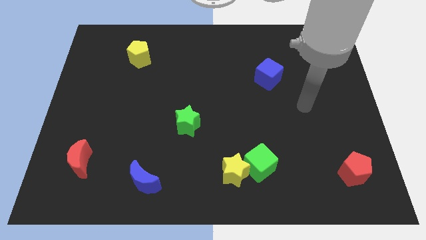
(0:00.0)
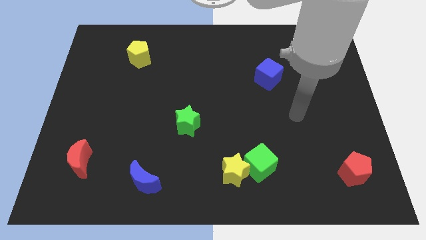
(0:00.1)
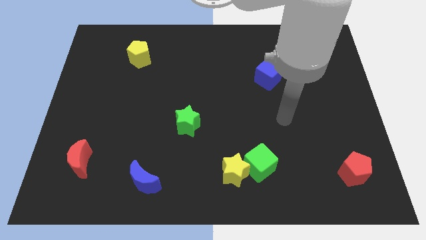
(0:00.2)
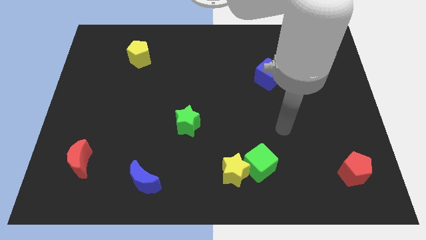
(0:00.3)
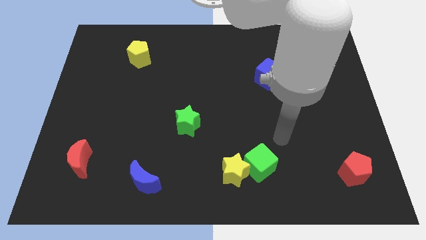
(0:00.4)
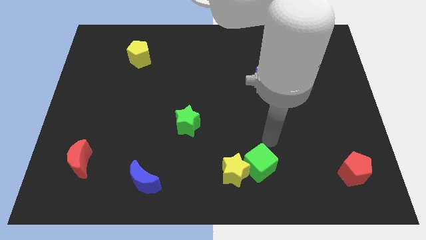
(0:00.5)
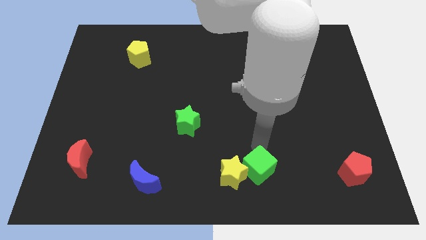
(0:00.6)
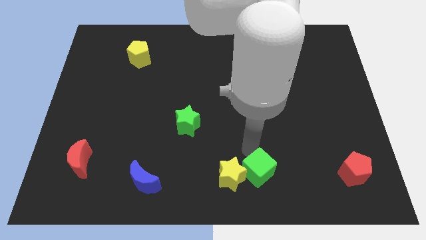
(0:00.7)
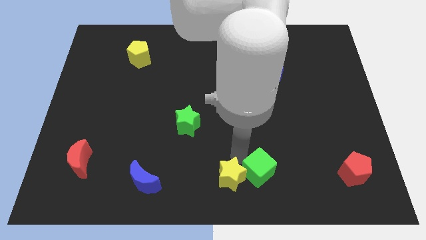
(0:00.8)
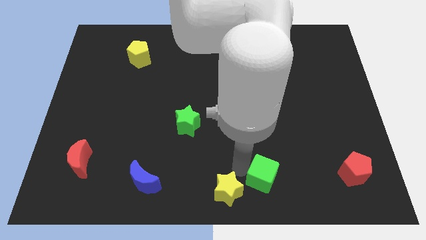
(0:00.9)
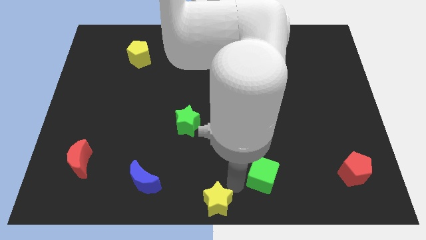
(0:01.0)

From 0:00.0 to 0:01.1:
pull the green cube apart from the yellow star

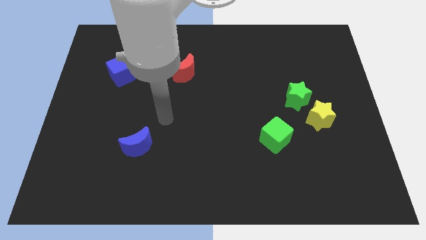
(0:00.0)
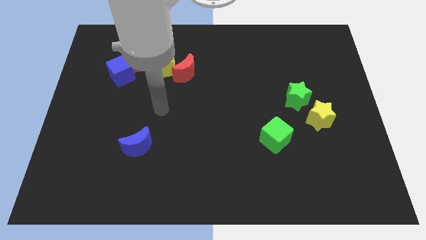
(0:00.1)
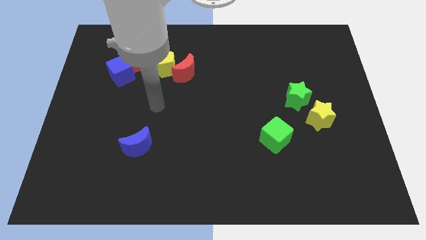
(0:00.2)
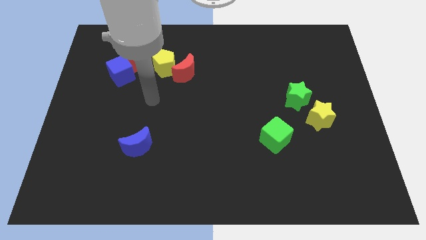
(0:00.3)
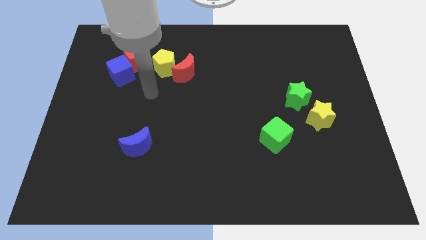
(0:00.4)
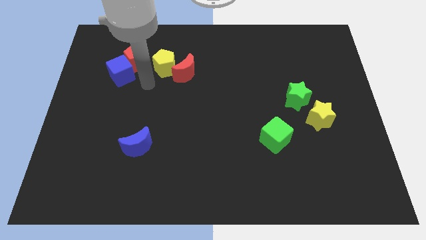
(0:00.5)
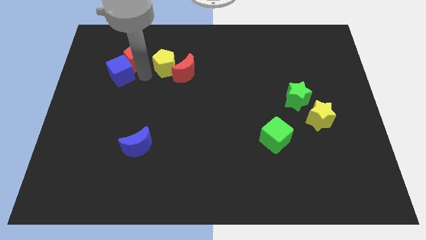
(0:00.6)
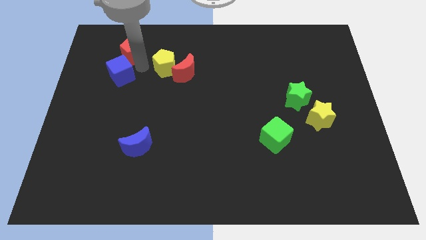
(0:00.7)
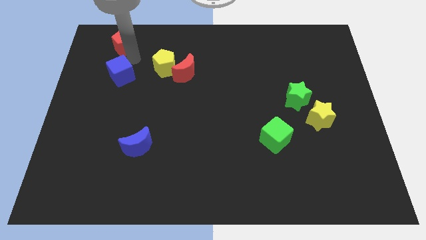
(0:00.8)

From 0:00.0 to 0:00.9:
move the blue cube away from the red pentagon

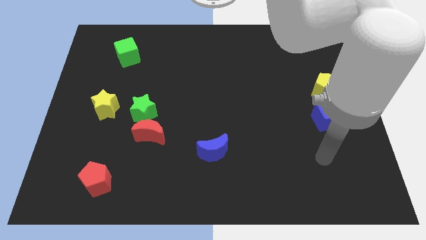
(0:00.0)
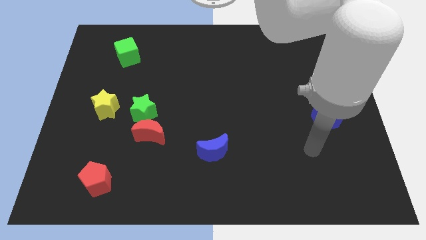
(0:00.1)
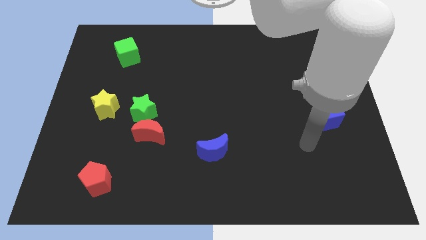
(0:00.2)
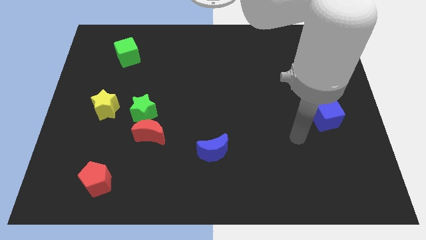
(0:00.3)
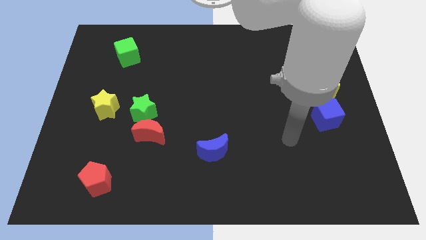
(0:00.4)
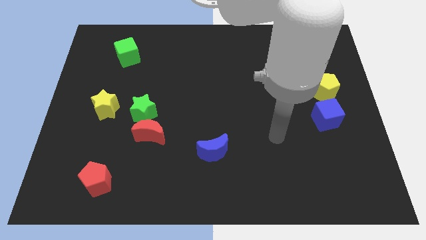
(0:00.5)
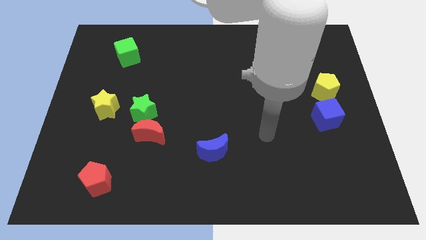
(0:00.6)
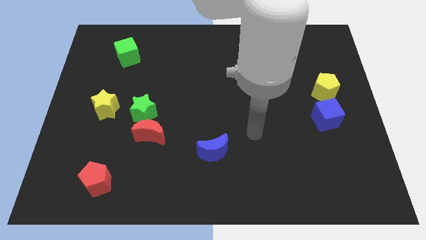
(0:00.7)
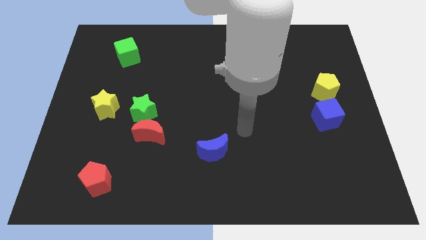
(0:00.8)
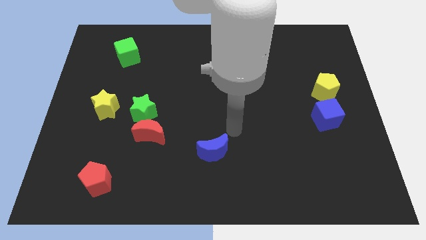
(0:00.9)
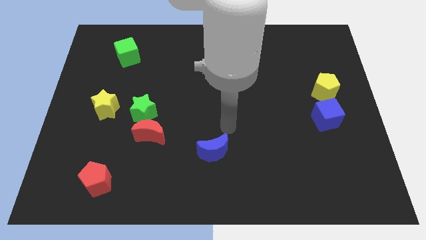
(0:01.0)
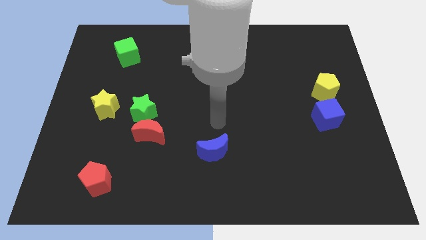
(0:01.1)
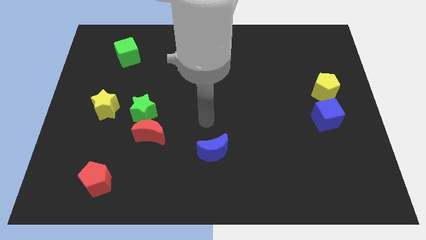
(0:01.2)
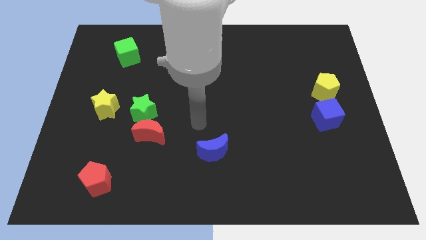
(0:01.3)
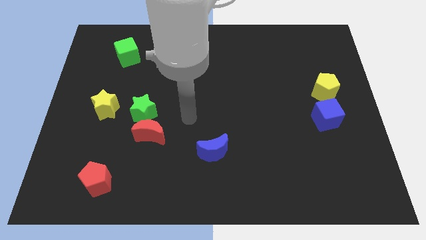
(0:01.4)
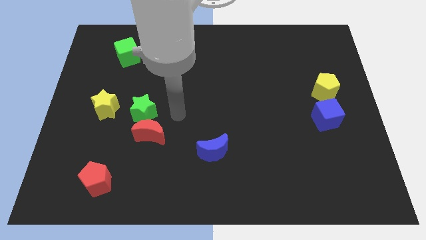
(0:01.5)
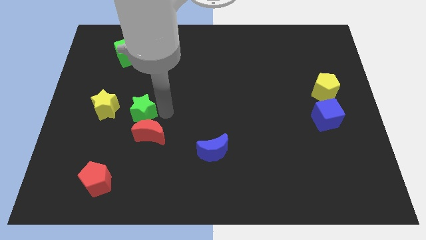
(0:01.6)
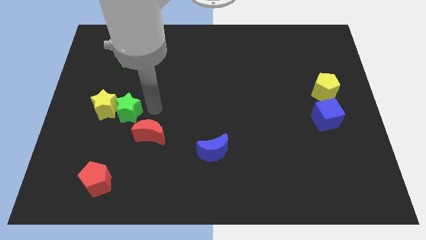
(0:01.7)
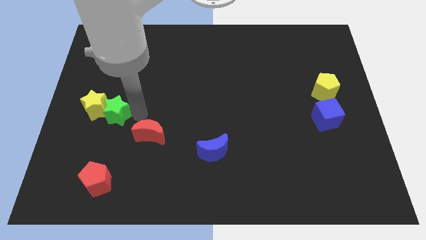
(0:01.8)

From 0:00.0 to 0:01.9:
move the red moon away from the green star

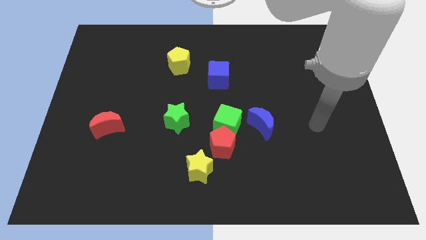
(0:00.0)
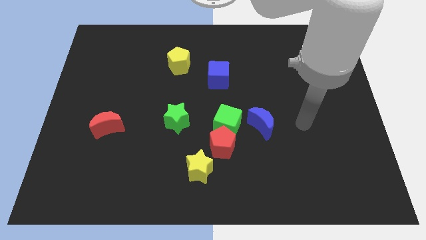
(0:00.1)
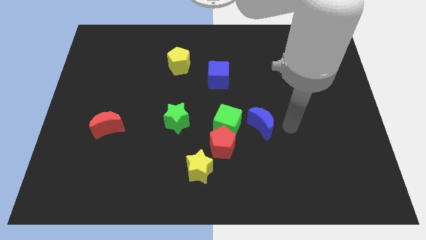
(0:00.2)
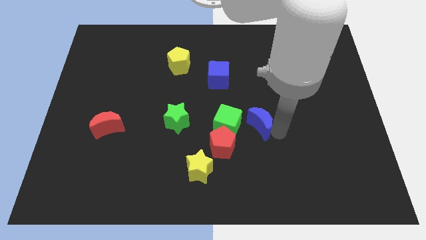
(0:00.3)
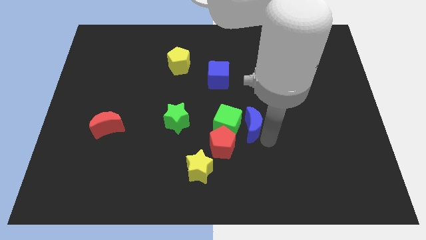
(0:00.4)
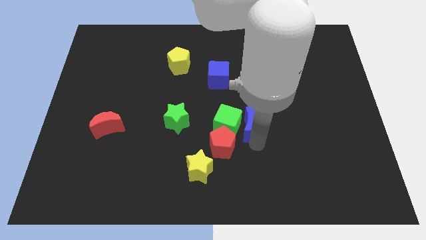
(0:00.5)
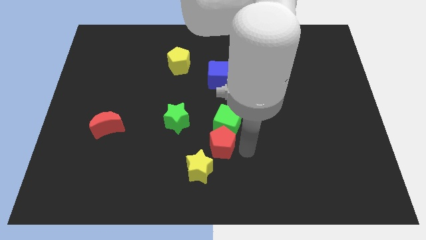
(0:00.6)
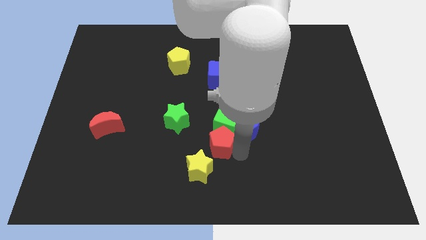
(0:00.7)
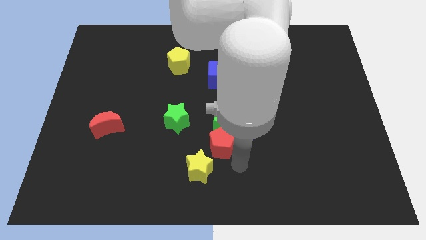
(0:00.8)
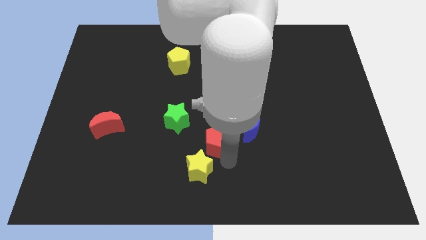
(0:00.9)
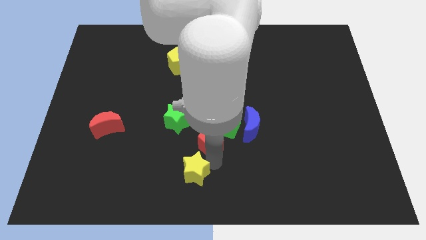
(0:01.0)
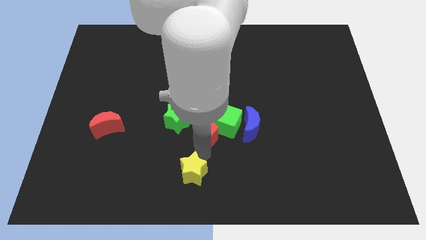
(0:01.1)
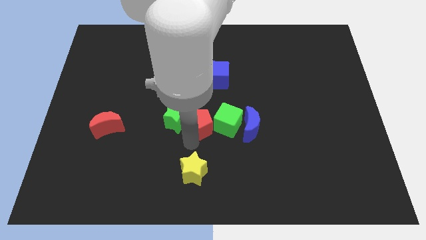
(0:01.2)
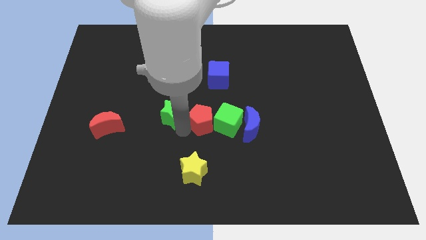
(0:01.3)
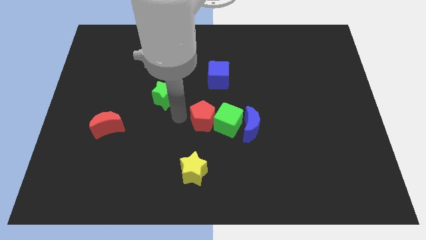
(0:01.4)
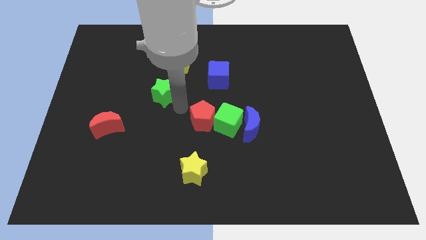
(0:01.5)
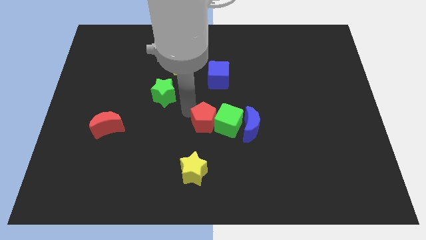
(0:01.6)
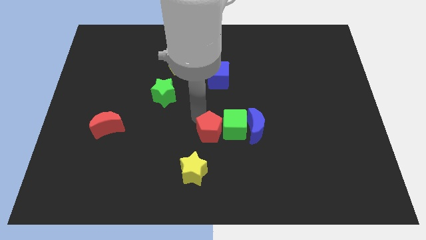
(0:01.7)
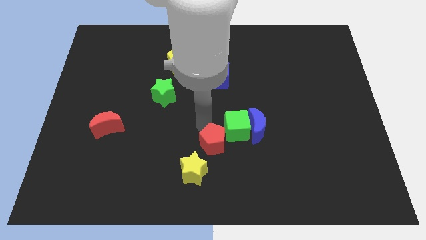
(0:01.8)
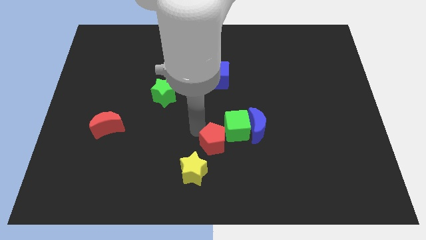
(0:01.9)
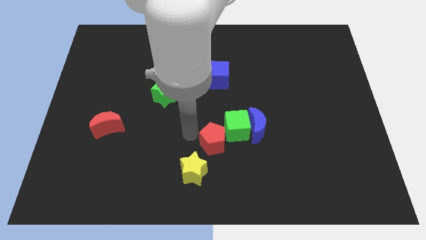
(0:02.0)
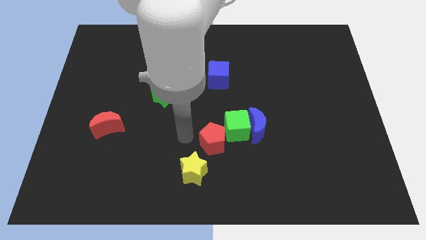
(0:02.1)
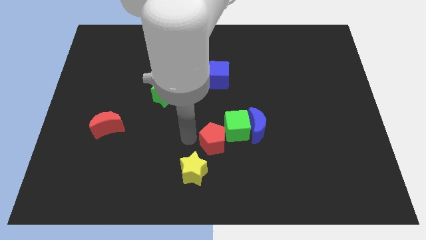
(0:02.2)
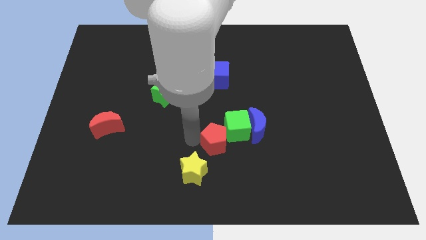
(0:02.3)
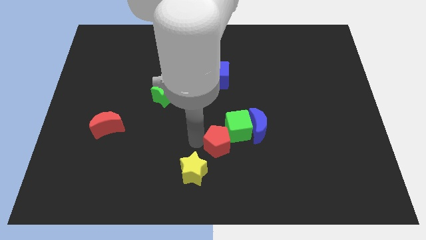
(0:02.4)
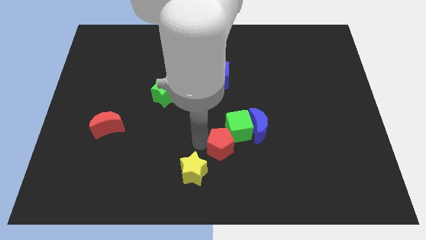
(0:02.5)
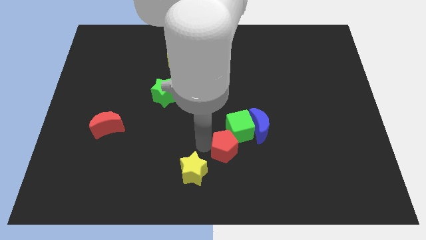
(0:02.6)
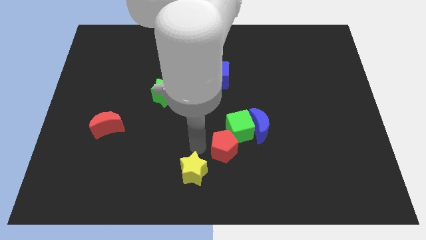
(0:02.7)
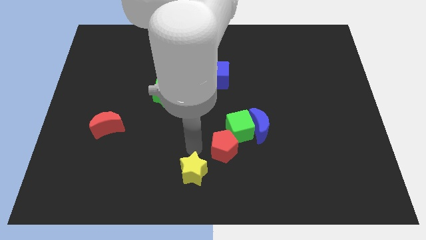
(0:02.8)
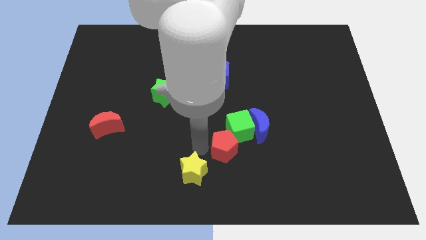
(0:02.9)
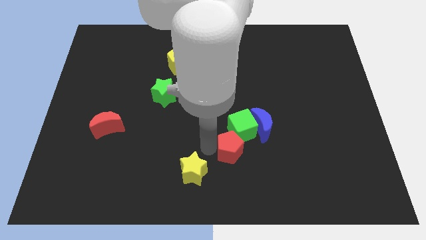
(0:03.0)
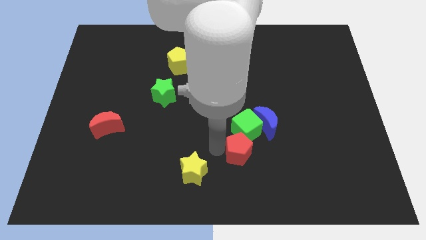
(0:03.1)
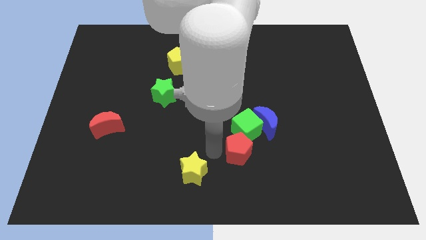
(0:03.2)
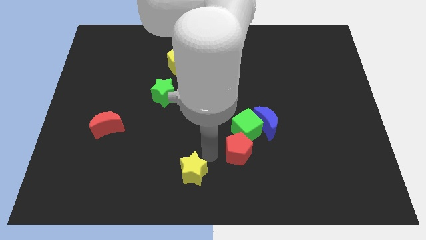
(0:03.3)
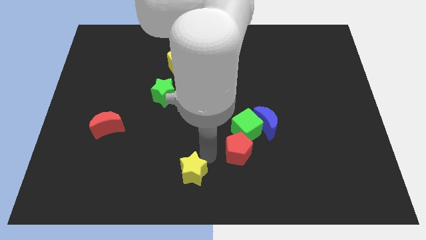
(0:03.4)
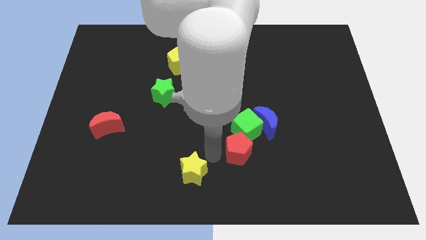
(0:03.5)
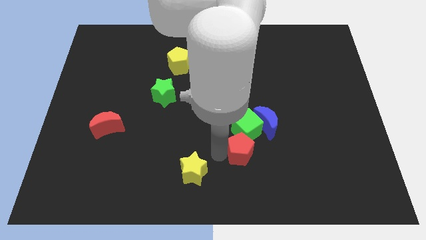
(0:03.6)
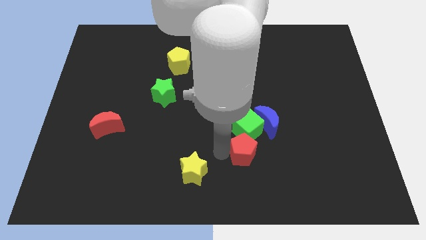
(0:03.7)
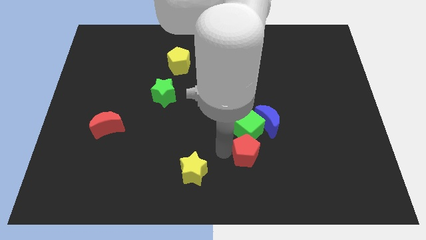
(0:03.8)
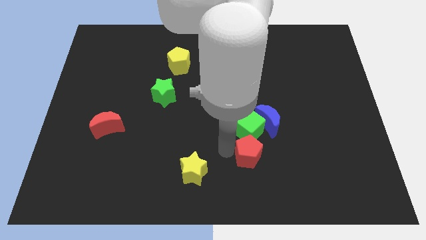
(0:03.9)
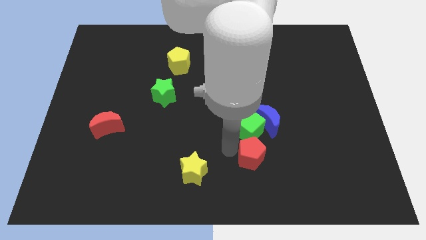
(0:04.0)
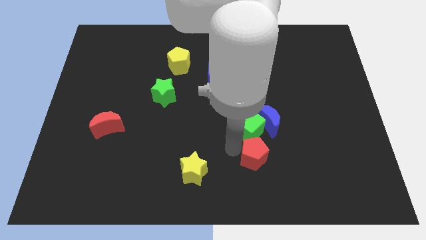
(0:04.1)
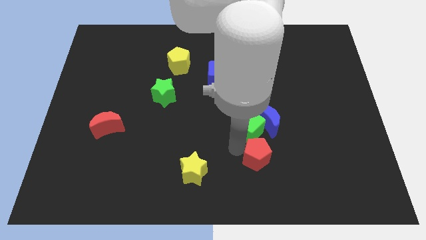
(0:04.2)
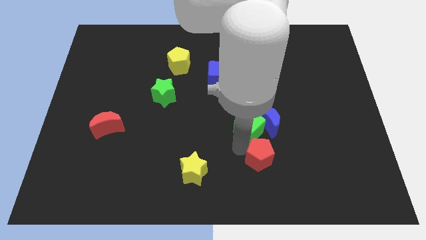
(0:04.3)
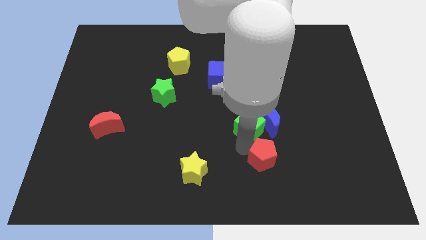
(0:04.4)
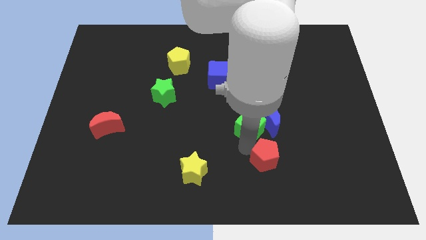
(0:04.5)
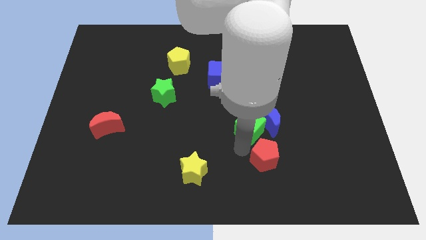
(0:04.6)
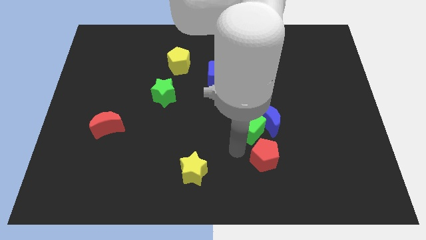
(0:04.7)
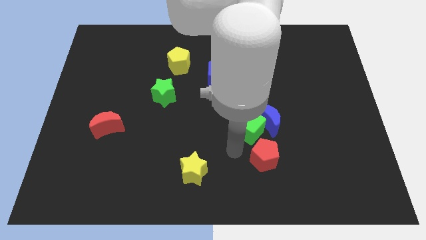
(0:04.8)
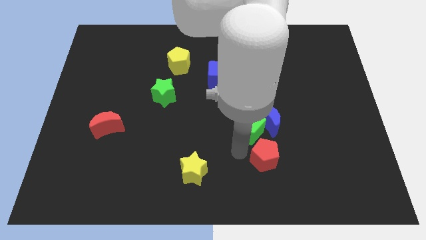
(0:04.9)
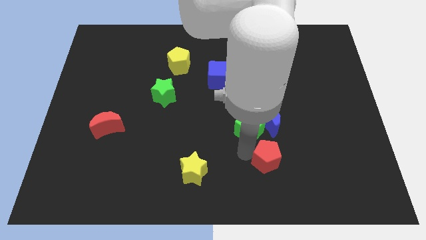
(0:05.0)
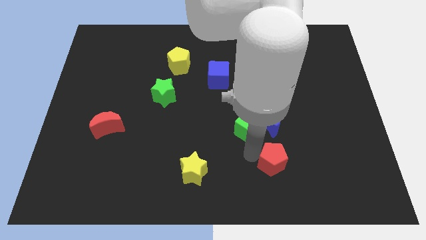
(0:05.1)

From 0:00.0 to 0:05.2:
separate the red pentagon from the green cube and yellow star

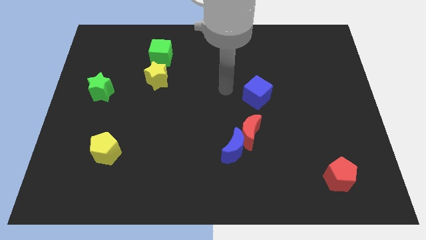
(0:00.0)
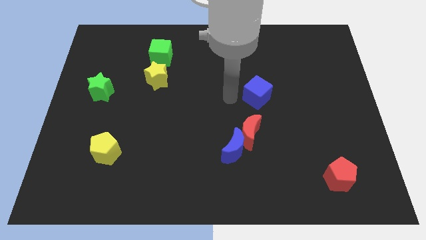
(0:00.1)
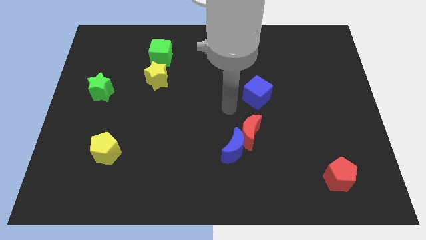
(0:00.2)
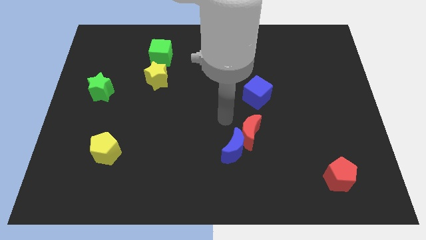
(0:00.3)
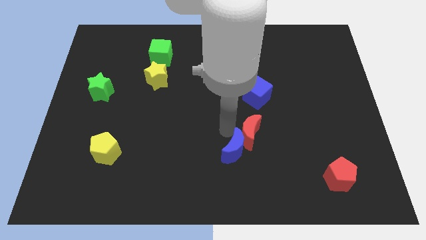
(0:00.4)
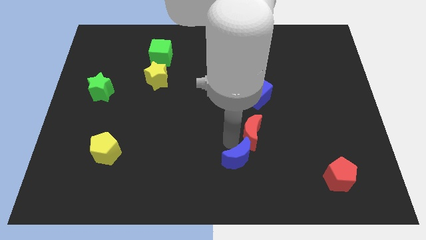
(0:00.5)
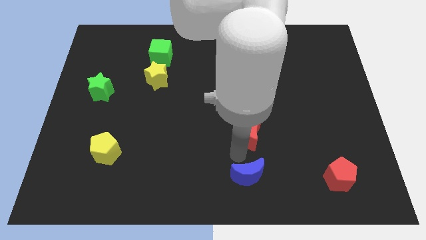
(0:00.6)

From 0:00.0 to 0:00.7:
separate the red moon from the blue moon
